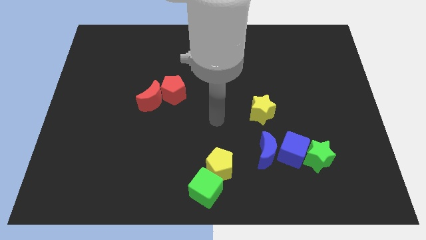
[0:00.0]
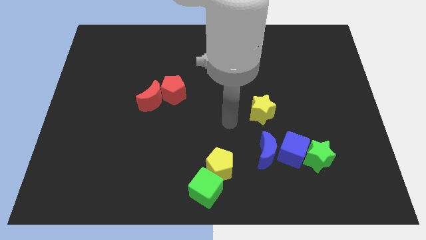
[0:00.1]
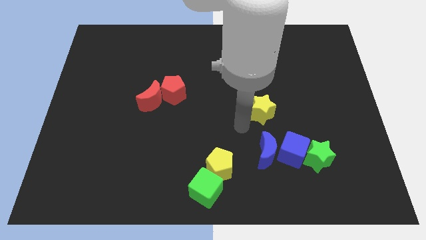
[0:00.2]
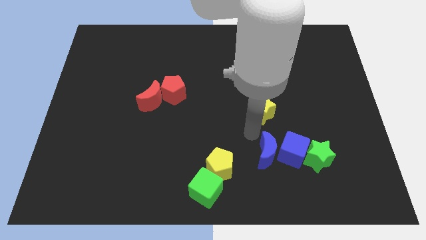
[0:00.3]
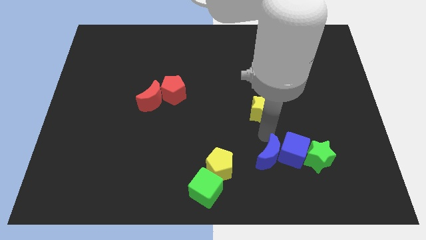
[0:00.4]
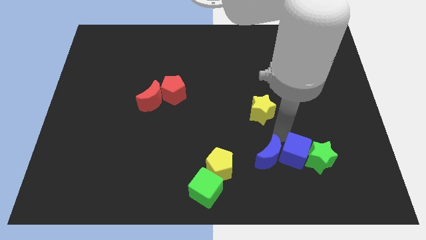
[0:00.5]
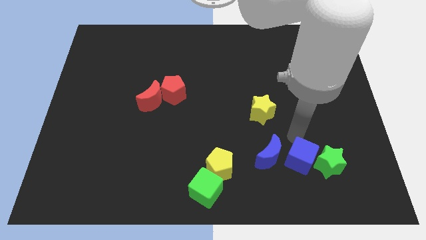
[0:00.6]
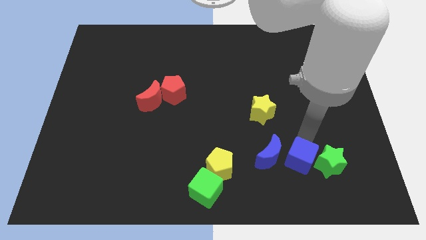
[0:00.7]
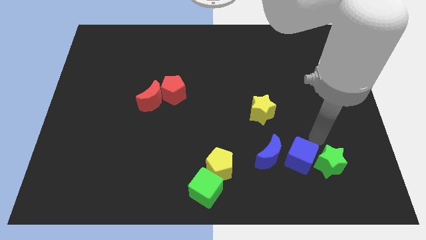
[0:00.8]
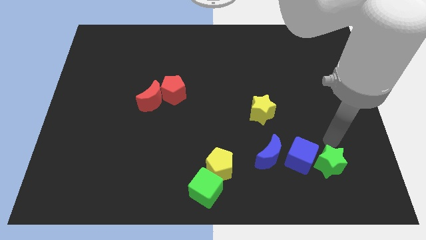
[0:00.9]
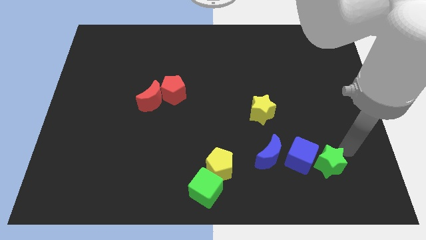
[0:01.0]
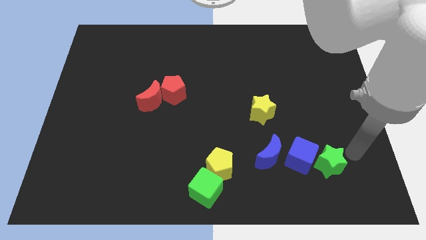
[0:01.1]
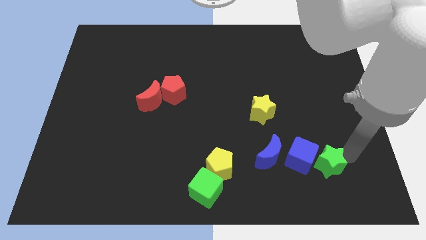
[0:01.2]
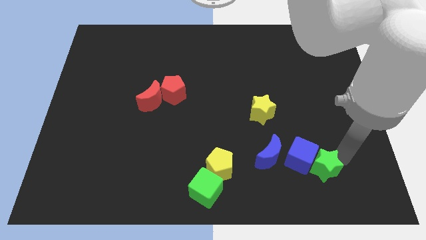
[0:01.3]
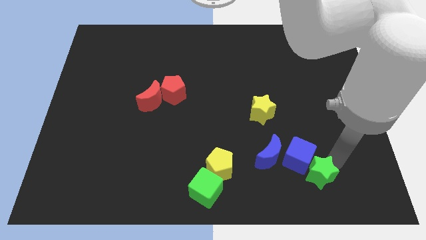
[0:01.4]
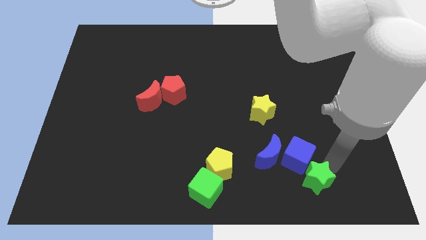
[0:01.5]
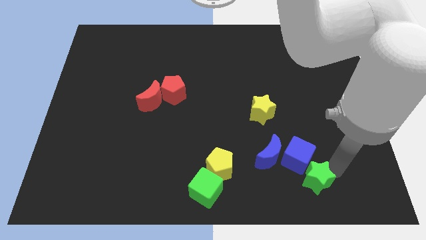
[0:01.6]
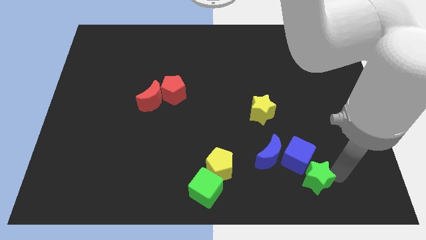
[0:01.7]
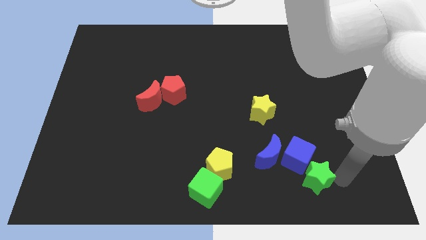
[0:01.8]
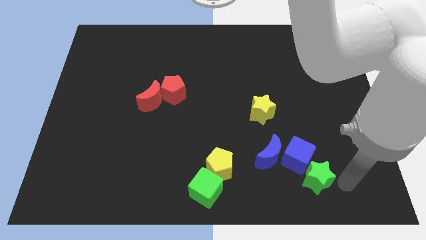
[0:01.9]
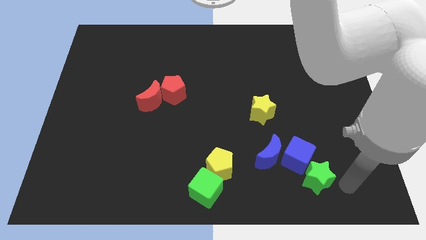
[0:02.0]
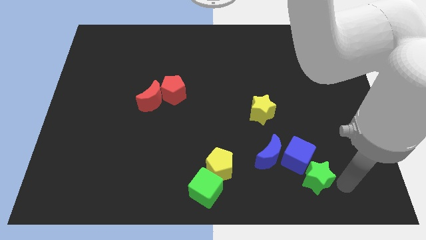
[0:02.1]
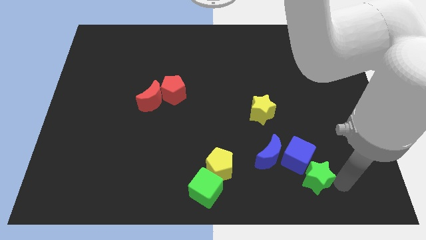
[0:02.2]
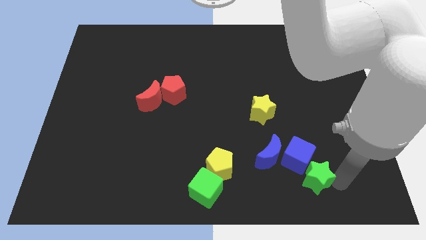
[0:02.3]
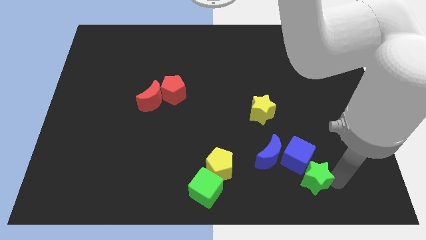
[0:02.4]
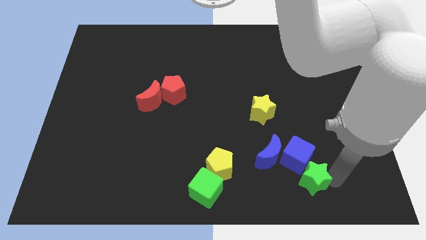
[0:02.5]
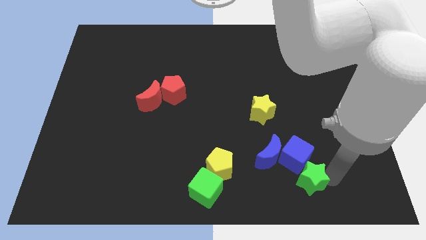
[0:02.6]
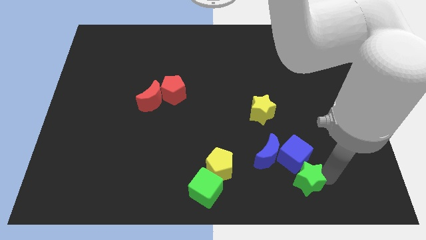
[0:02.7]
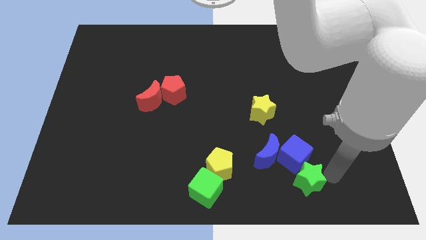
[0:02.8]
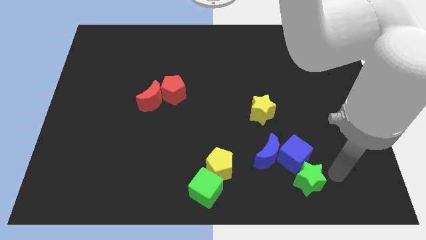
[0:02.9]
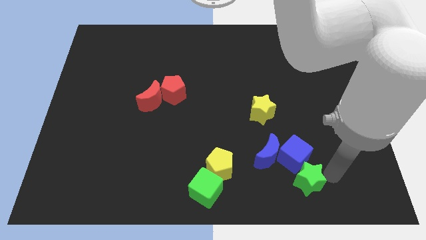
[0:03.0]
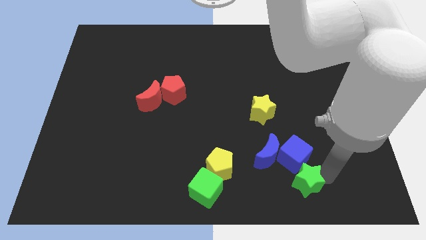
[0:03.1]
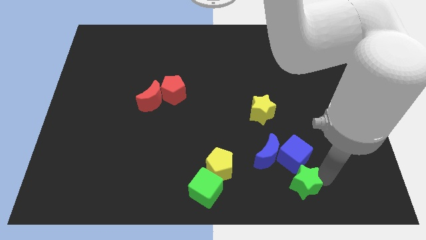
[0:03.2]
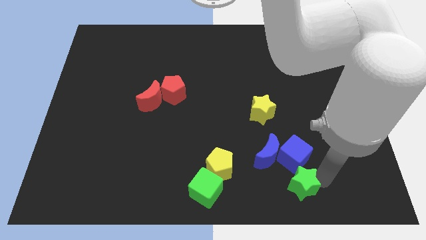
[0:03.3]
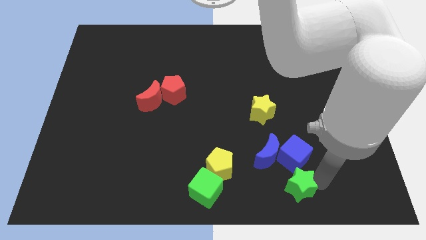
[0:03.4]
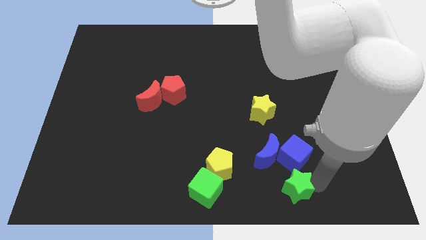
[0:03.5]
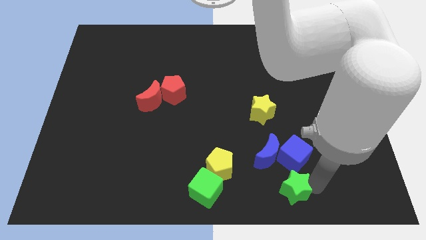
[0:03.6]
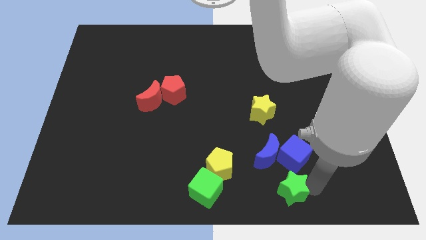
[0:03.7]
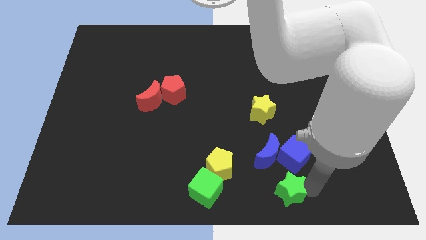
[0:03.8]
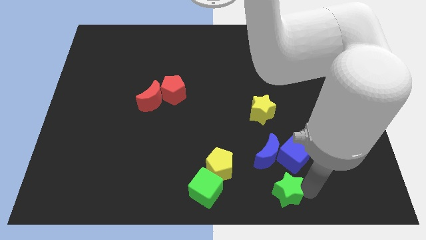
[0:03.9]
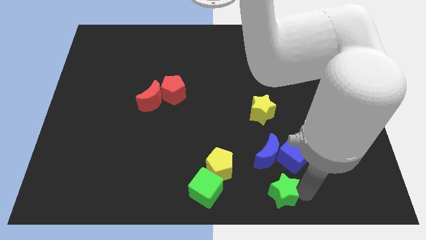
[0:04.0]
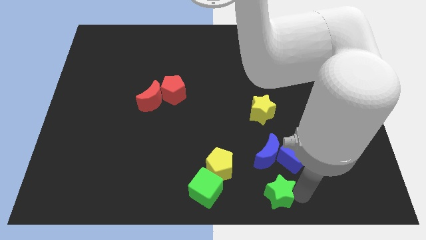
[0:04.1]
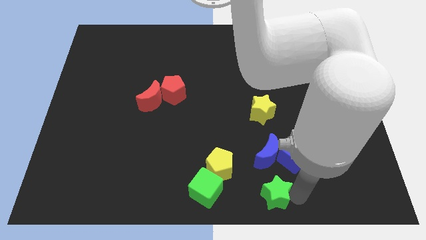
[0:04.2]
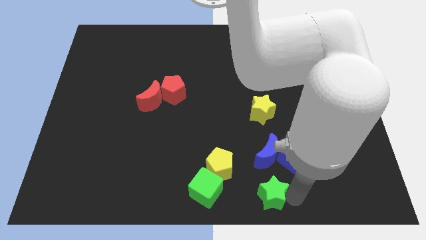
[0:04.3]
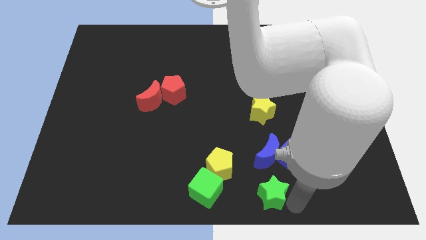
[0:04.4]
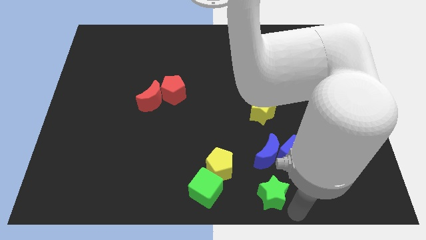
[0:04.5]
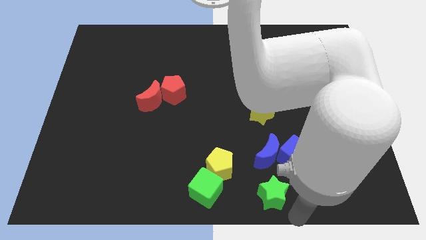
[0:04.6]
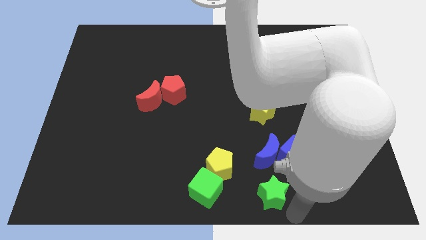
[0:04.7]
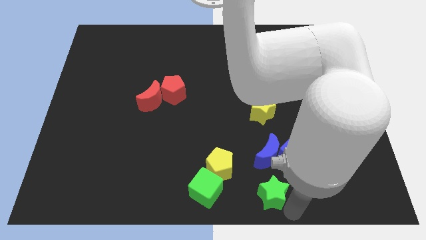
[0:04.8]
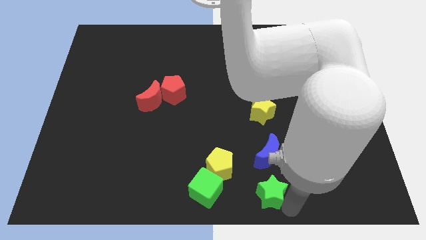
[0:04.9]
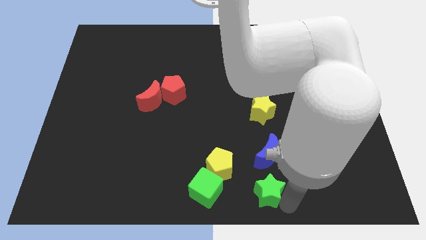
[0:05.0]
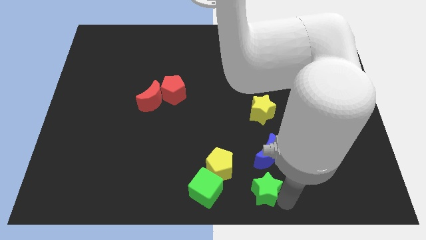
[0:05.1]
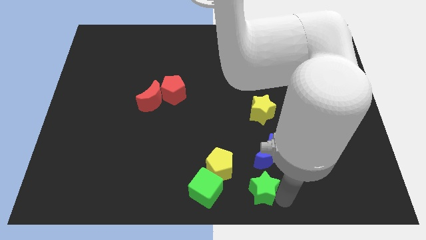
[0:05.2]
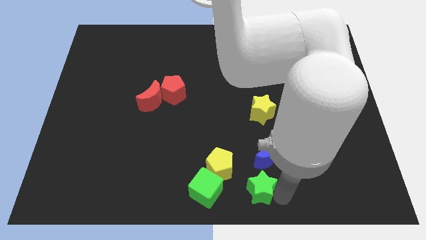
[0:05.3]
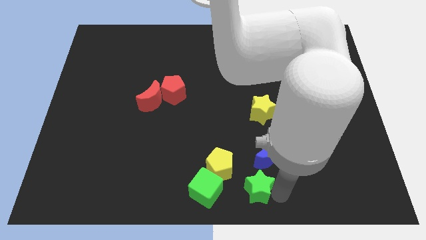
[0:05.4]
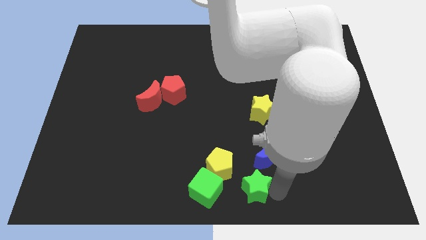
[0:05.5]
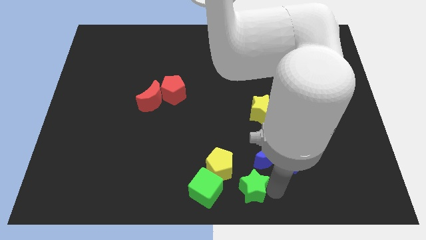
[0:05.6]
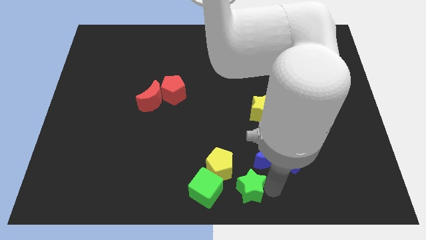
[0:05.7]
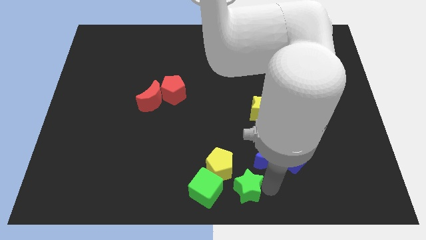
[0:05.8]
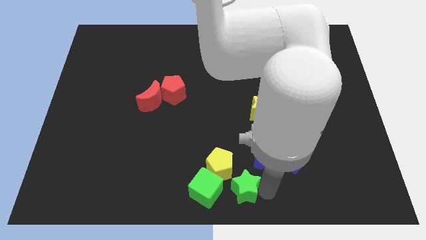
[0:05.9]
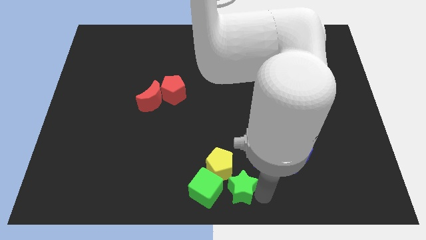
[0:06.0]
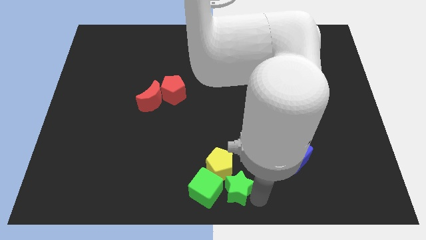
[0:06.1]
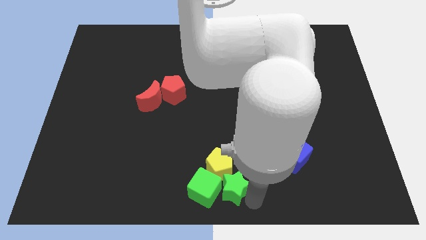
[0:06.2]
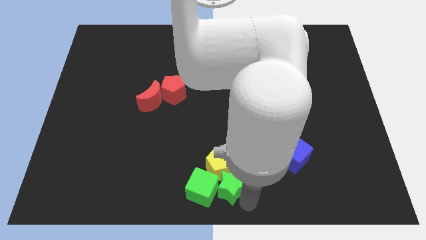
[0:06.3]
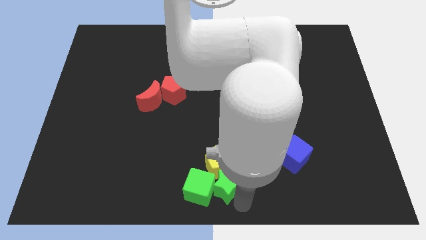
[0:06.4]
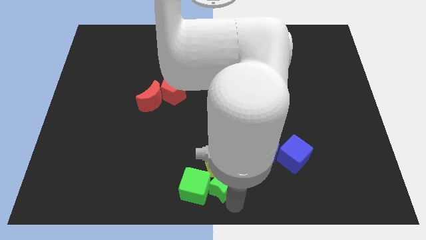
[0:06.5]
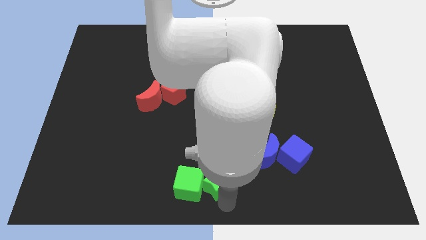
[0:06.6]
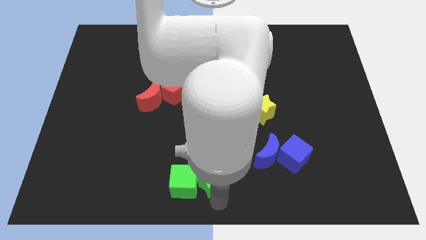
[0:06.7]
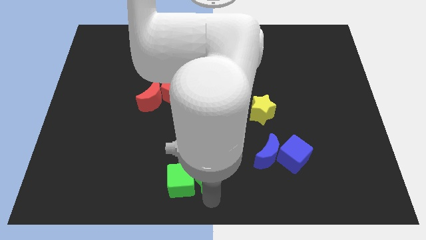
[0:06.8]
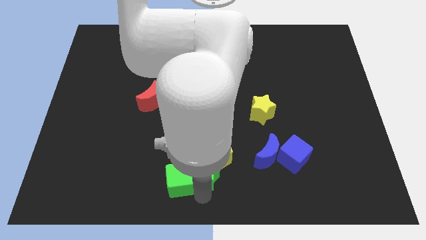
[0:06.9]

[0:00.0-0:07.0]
move the green star just left of the blue moon

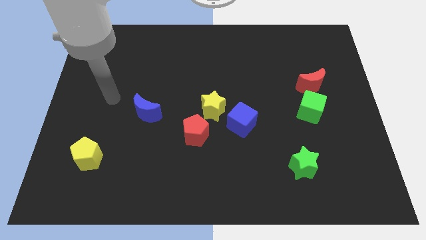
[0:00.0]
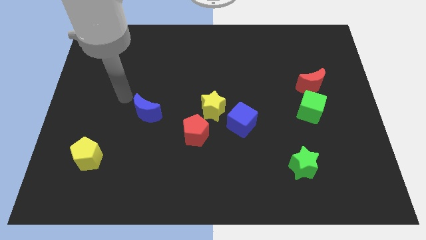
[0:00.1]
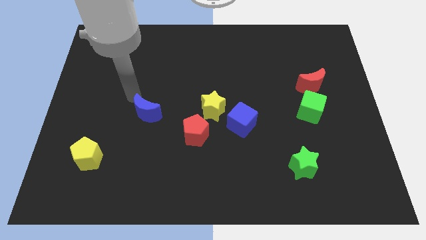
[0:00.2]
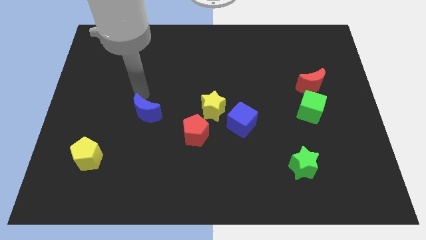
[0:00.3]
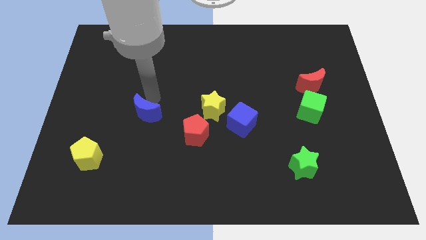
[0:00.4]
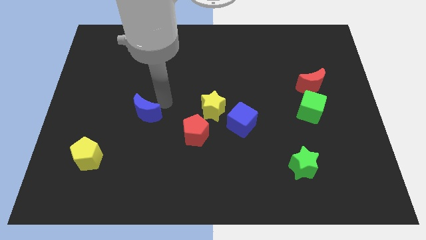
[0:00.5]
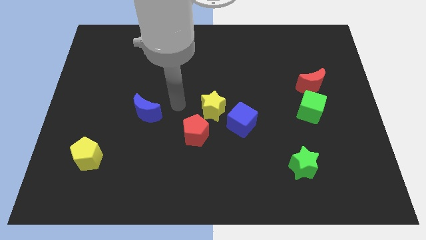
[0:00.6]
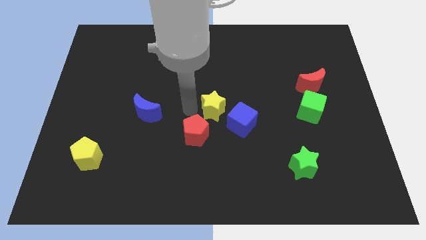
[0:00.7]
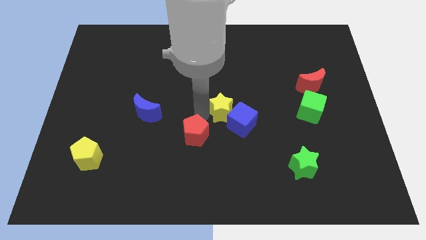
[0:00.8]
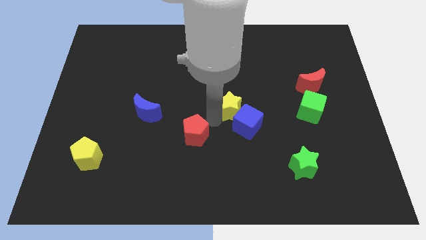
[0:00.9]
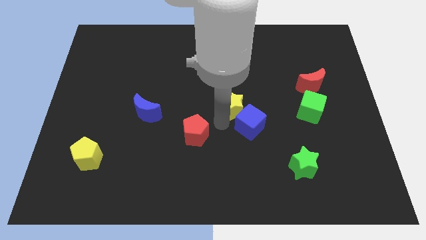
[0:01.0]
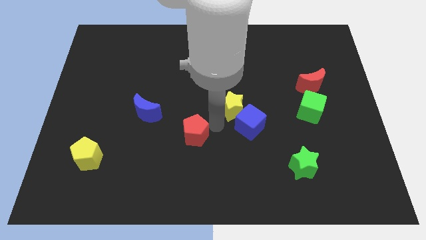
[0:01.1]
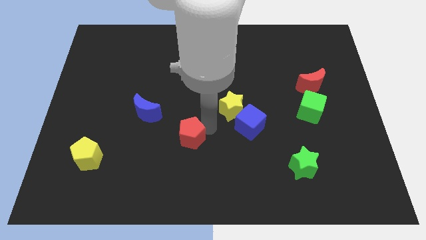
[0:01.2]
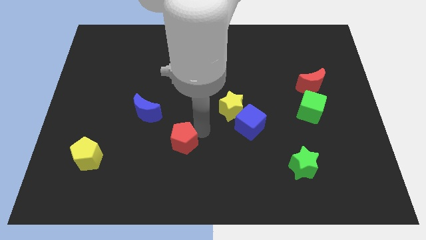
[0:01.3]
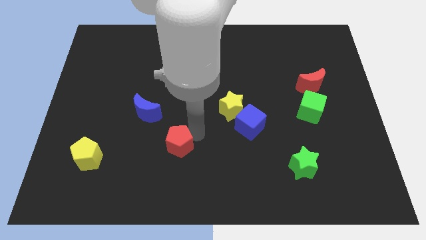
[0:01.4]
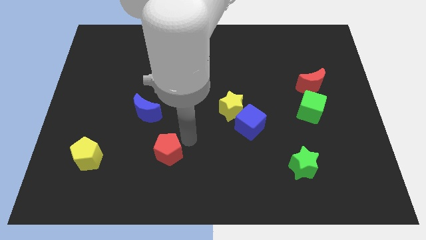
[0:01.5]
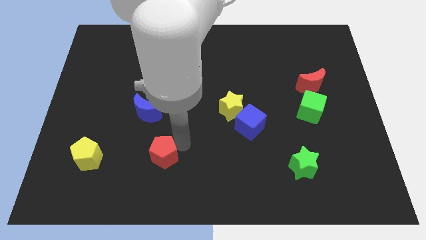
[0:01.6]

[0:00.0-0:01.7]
move the red pentagon to the bottom of the blue moon
